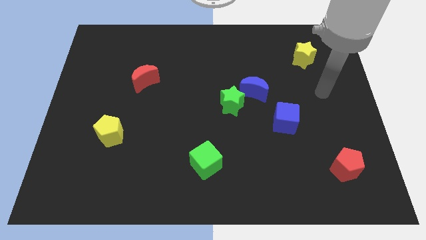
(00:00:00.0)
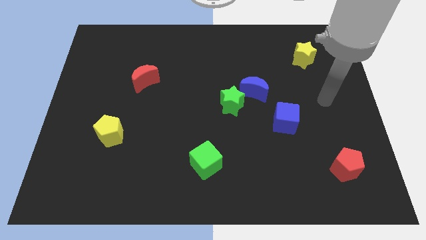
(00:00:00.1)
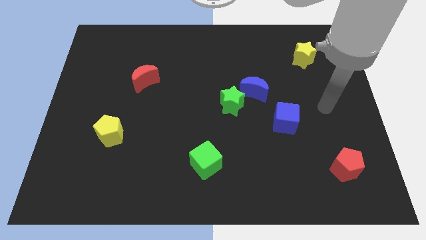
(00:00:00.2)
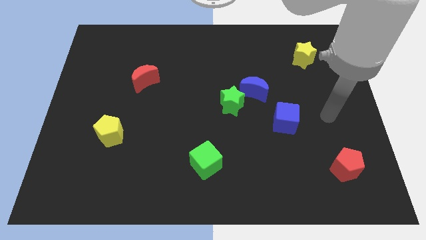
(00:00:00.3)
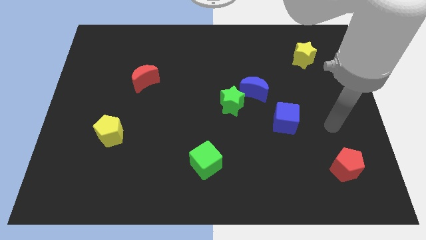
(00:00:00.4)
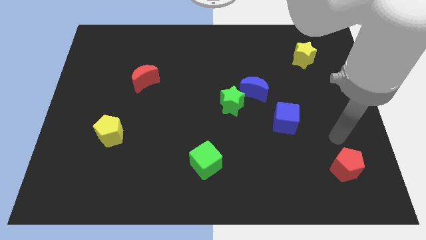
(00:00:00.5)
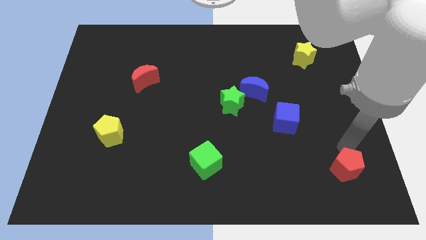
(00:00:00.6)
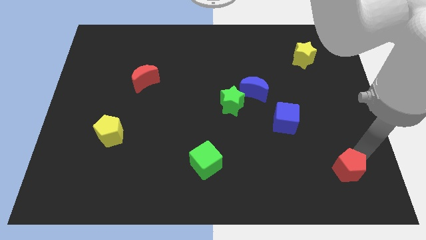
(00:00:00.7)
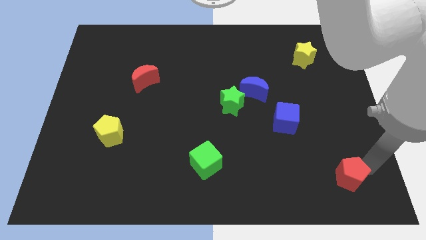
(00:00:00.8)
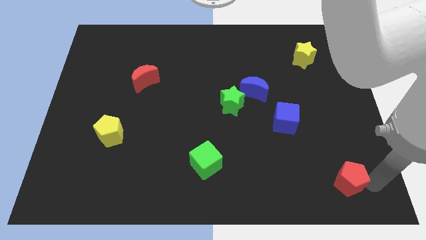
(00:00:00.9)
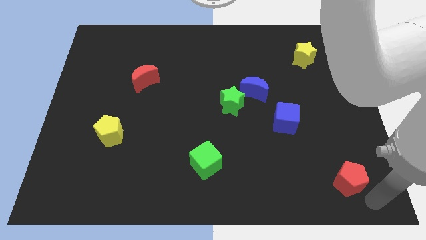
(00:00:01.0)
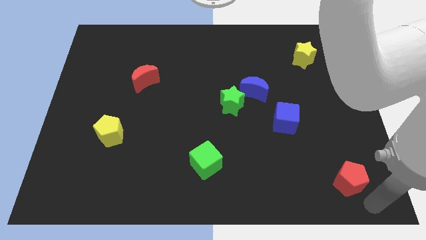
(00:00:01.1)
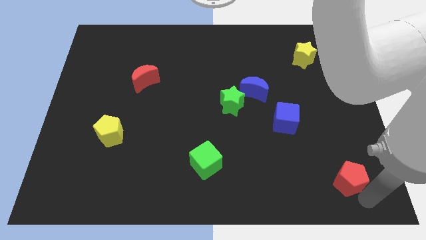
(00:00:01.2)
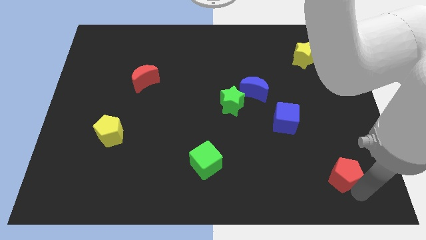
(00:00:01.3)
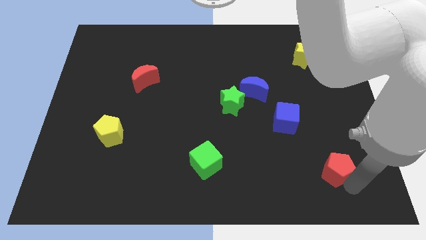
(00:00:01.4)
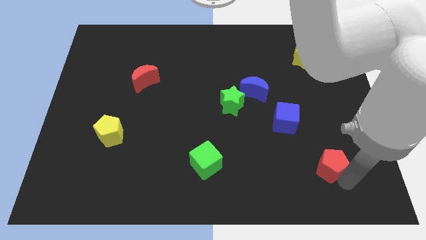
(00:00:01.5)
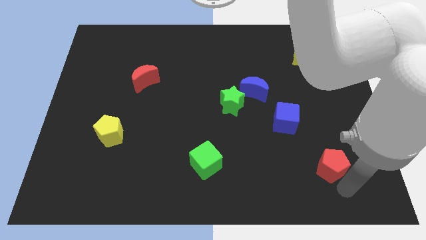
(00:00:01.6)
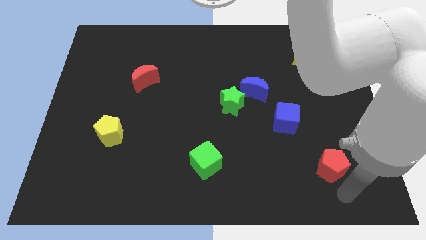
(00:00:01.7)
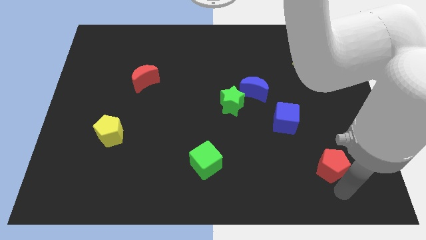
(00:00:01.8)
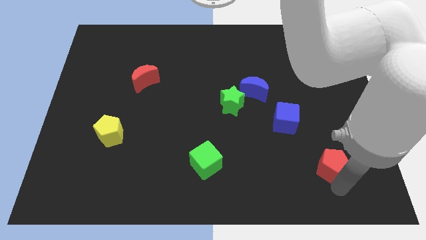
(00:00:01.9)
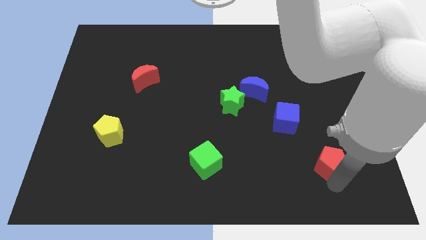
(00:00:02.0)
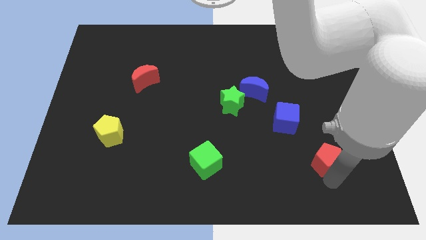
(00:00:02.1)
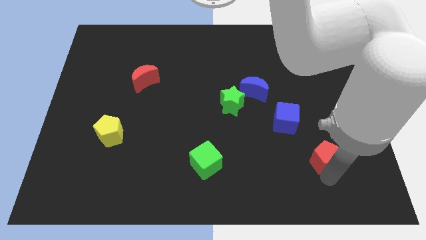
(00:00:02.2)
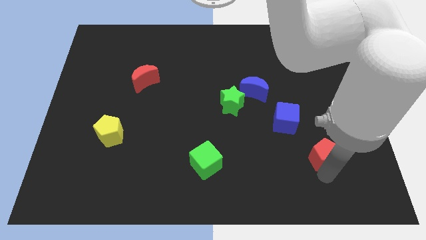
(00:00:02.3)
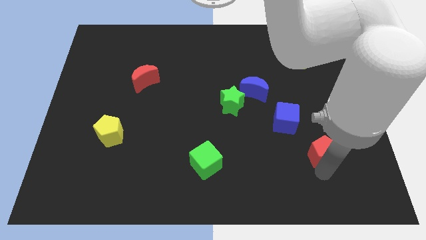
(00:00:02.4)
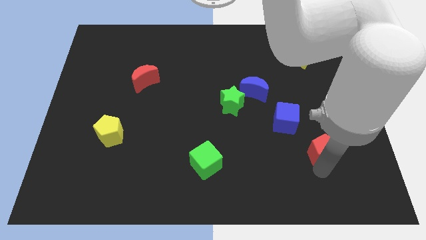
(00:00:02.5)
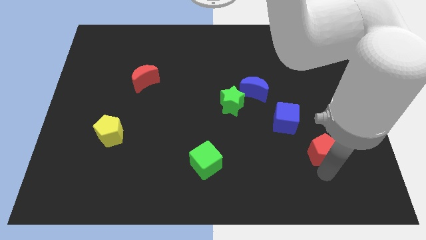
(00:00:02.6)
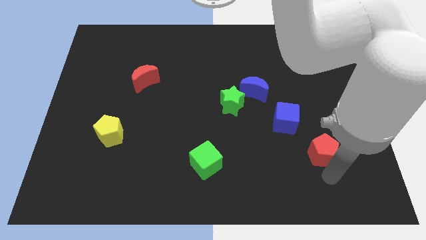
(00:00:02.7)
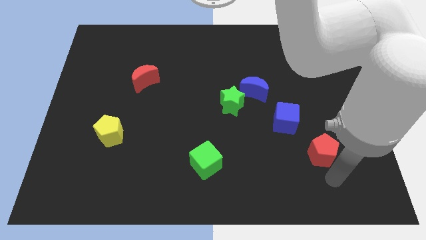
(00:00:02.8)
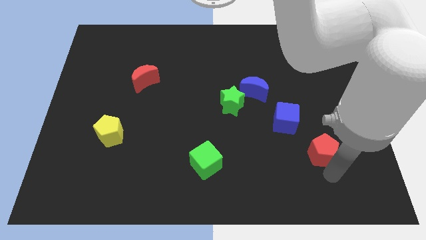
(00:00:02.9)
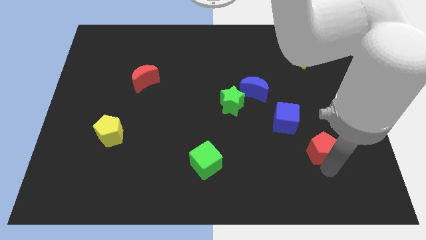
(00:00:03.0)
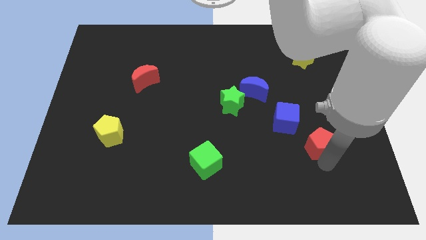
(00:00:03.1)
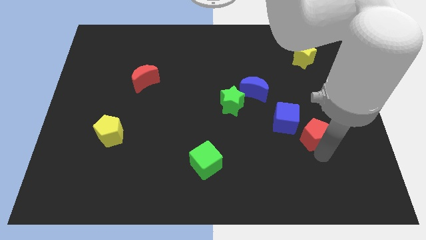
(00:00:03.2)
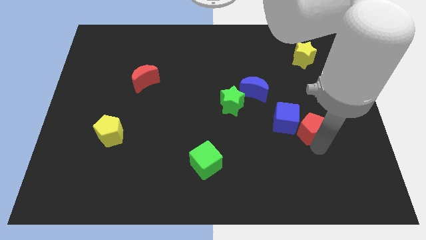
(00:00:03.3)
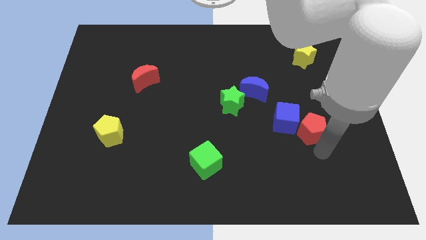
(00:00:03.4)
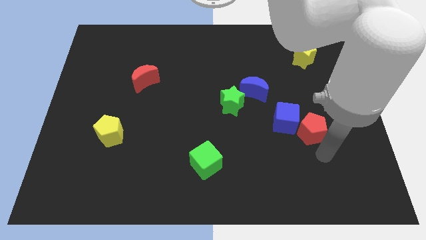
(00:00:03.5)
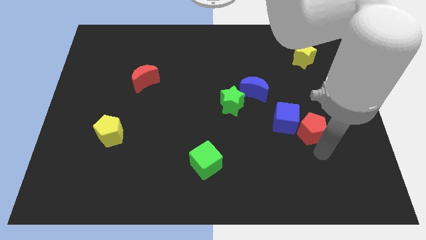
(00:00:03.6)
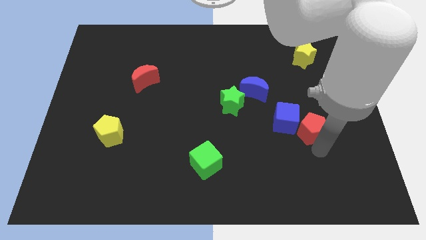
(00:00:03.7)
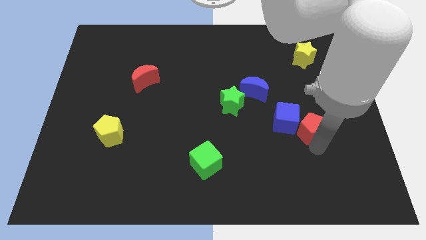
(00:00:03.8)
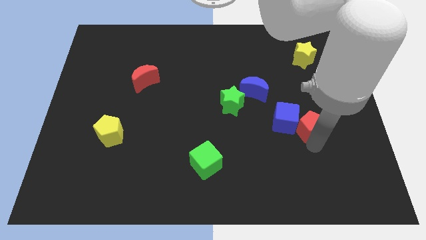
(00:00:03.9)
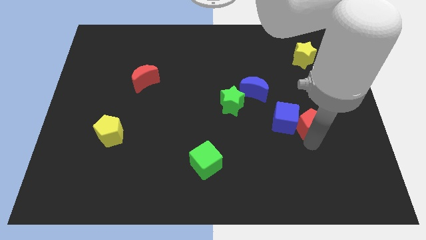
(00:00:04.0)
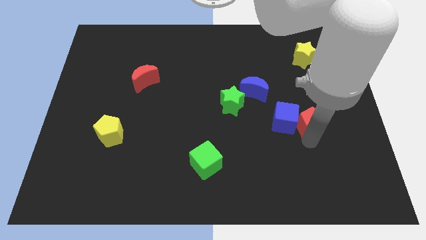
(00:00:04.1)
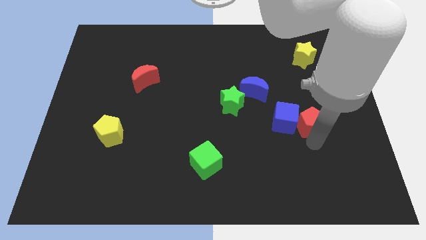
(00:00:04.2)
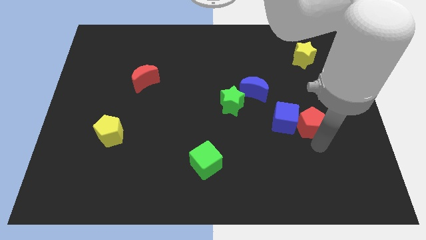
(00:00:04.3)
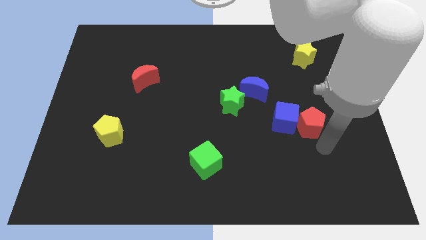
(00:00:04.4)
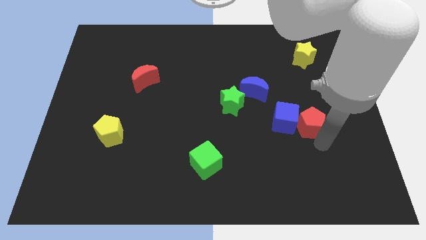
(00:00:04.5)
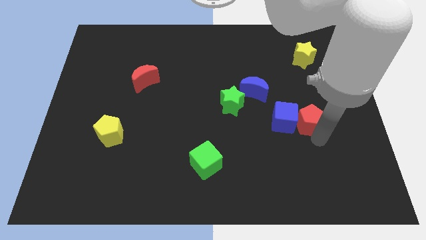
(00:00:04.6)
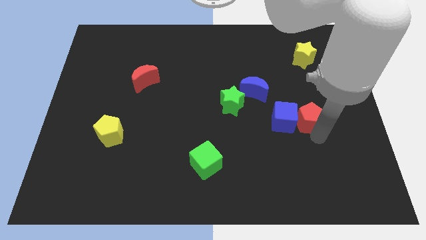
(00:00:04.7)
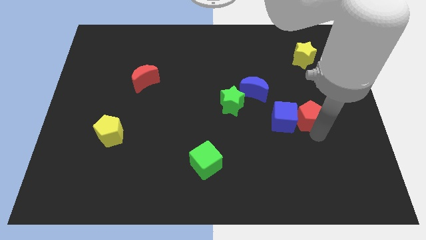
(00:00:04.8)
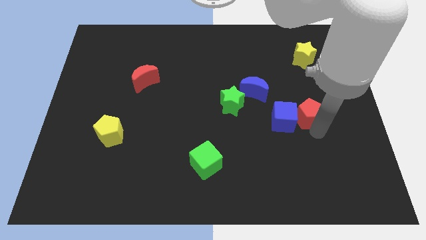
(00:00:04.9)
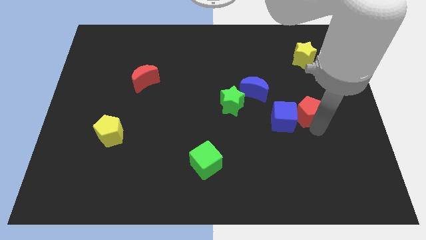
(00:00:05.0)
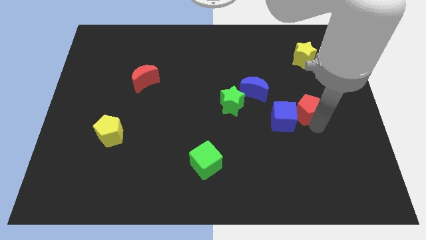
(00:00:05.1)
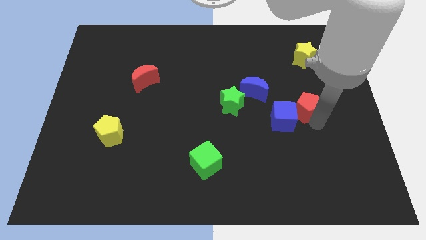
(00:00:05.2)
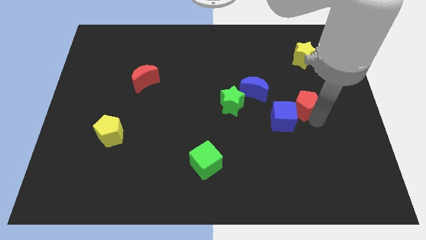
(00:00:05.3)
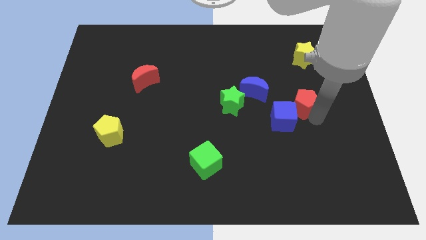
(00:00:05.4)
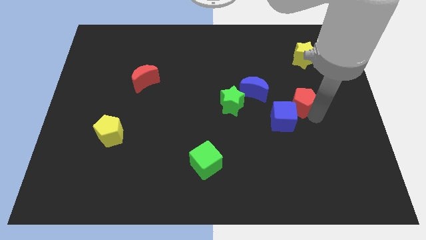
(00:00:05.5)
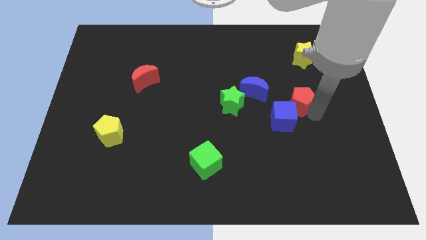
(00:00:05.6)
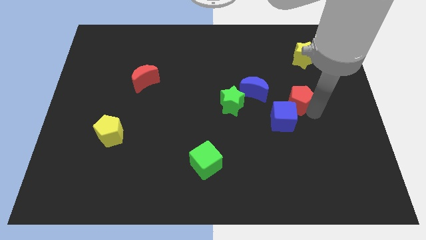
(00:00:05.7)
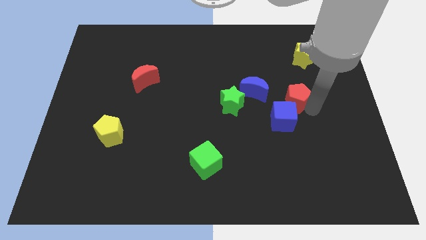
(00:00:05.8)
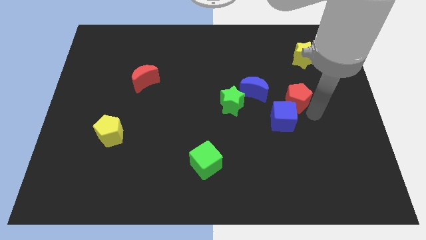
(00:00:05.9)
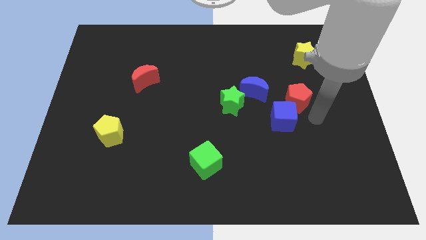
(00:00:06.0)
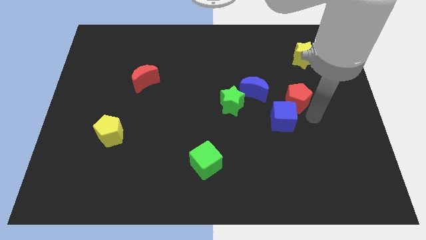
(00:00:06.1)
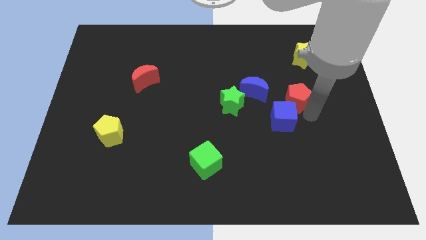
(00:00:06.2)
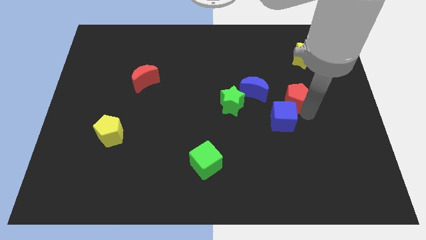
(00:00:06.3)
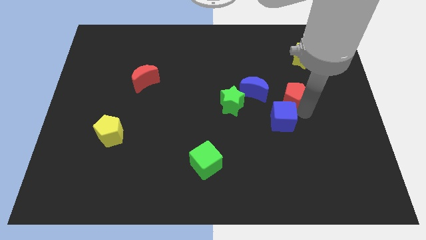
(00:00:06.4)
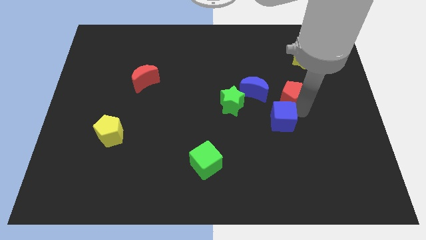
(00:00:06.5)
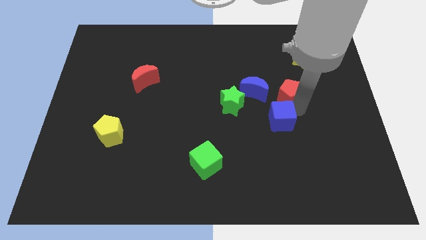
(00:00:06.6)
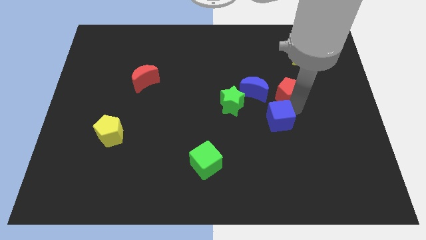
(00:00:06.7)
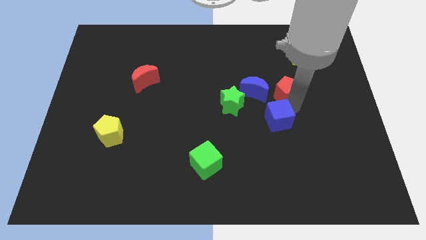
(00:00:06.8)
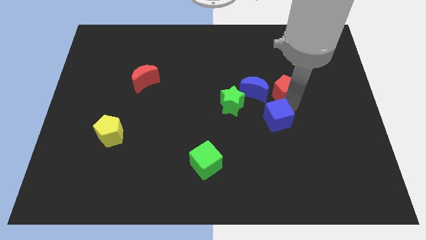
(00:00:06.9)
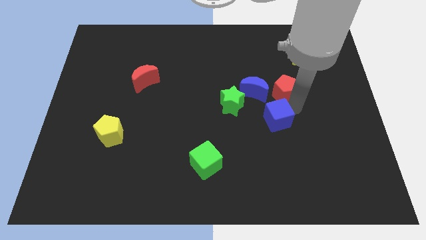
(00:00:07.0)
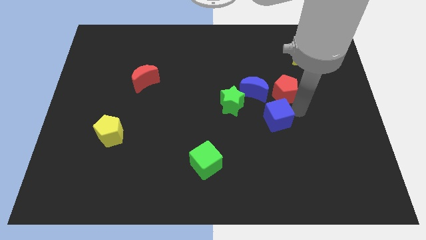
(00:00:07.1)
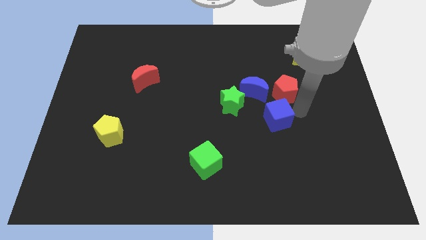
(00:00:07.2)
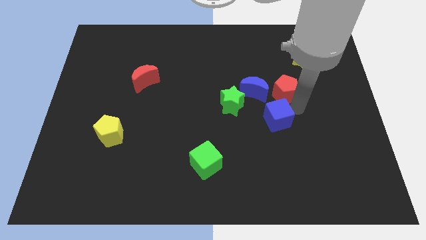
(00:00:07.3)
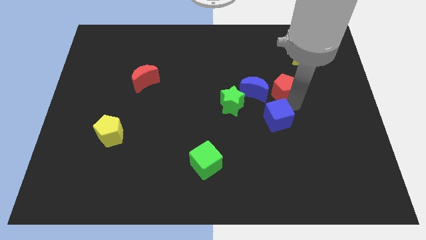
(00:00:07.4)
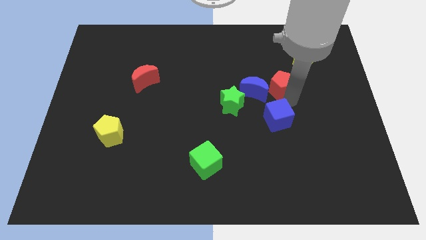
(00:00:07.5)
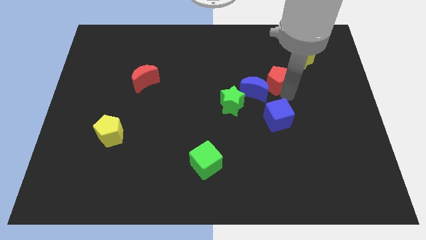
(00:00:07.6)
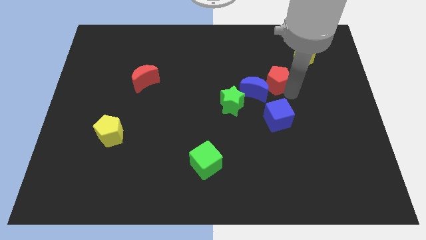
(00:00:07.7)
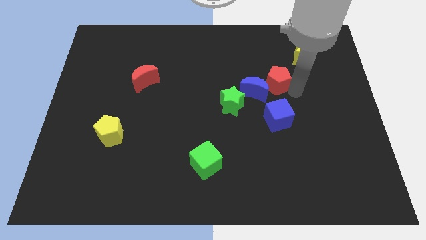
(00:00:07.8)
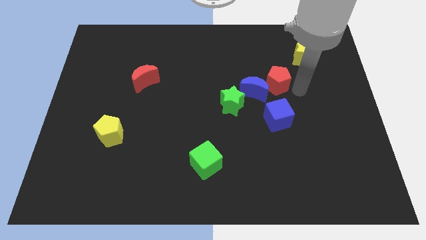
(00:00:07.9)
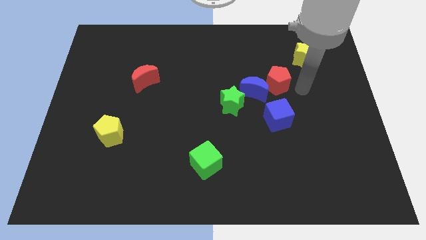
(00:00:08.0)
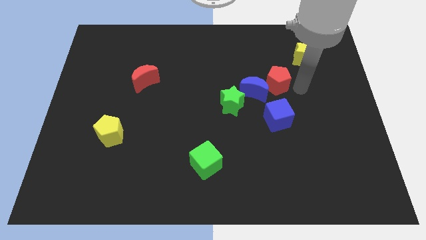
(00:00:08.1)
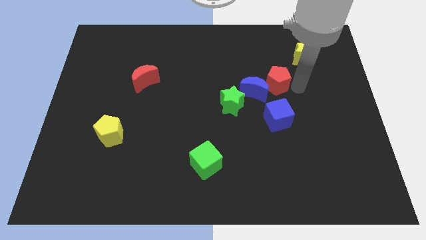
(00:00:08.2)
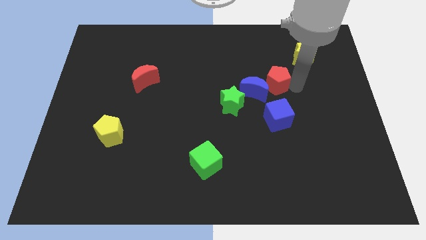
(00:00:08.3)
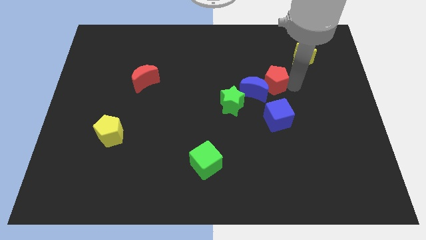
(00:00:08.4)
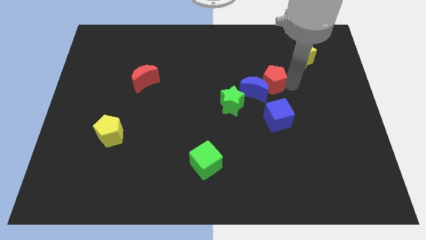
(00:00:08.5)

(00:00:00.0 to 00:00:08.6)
slide the red pentagon to the top right side of the green star
